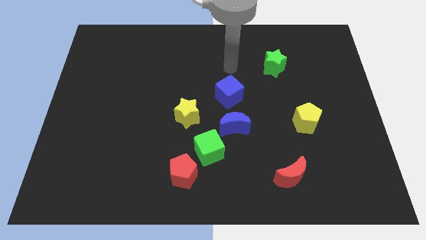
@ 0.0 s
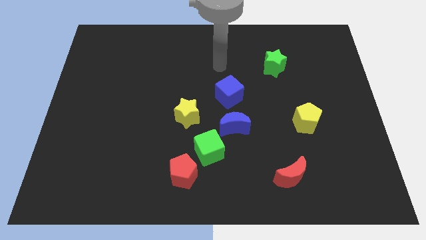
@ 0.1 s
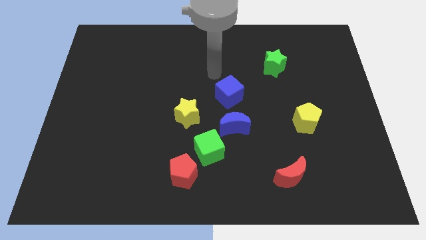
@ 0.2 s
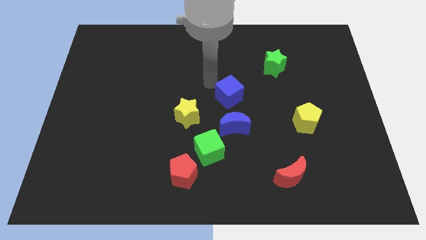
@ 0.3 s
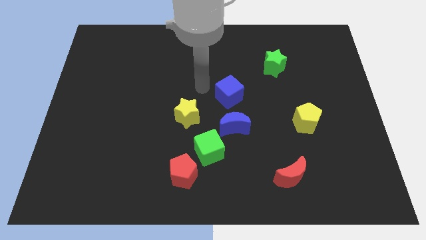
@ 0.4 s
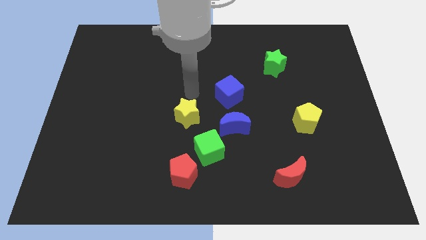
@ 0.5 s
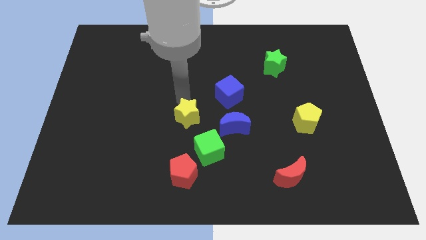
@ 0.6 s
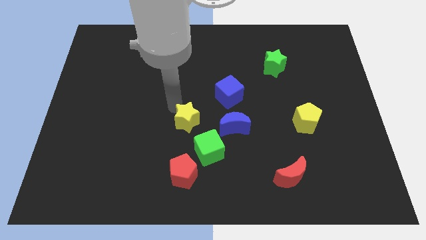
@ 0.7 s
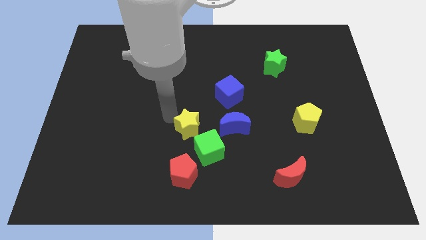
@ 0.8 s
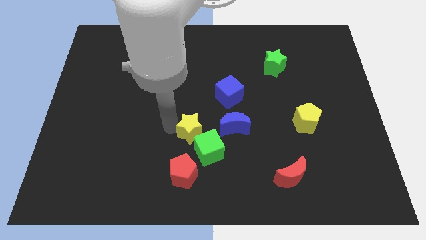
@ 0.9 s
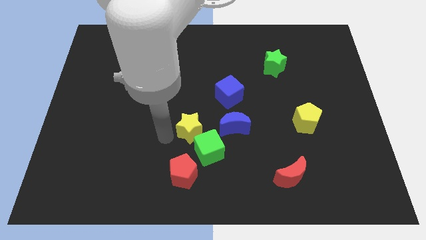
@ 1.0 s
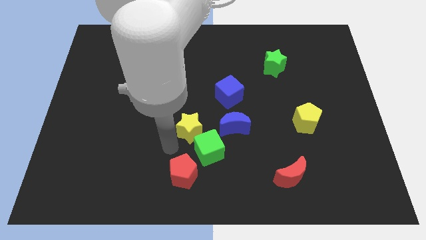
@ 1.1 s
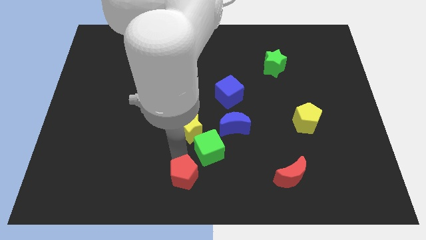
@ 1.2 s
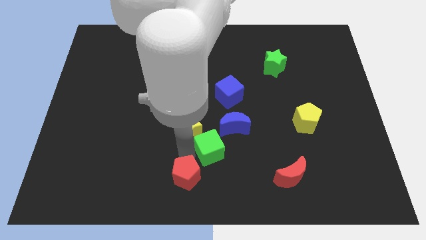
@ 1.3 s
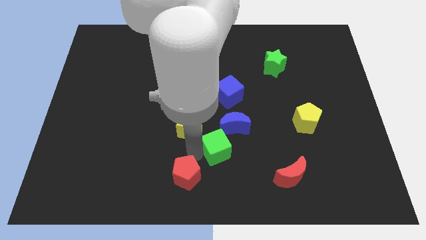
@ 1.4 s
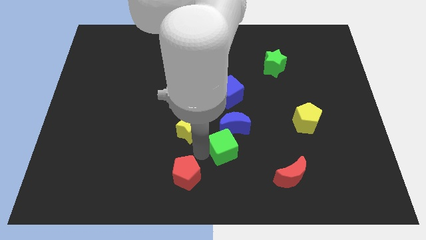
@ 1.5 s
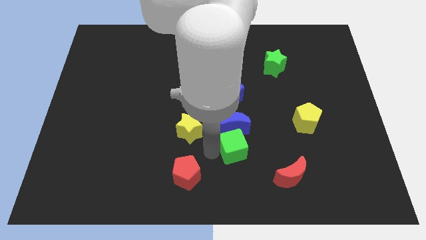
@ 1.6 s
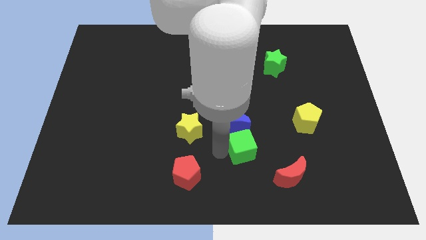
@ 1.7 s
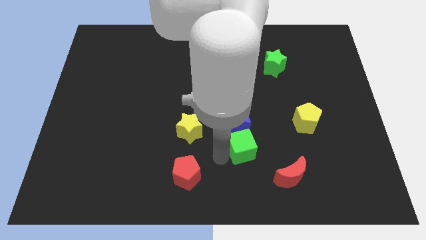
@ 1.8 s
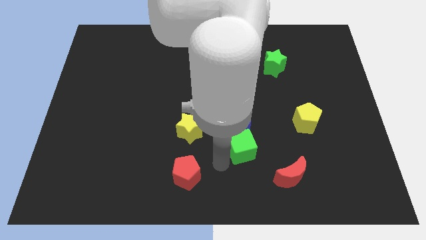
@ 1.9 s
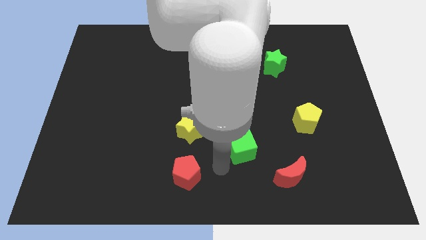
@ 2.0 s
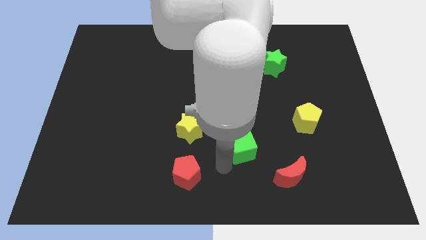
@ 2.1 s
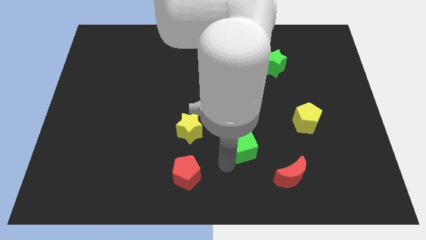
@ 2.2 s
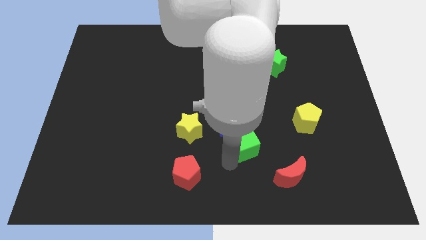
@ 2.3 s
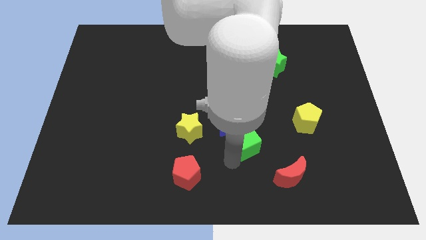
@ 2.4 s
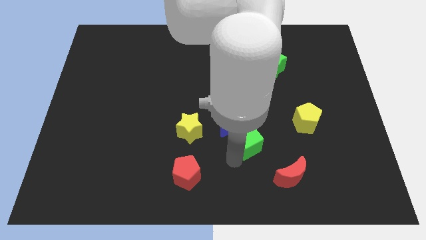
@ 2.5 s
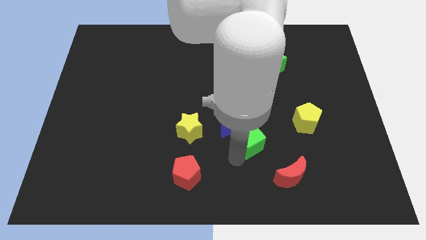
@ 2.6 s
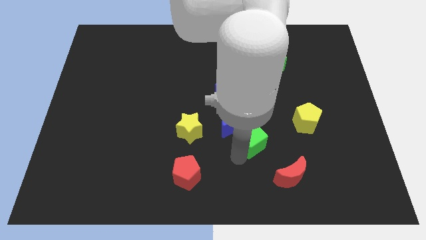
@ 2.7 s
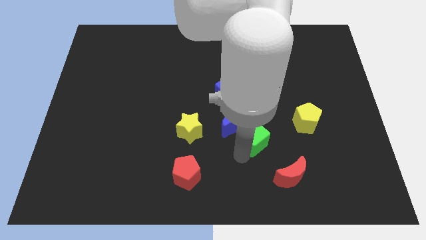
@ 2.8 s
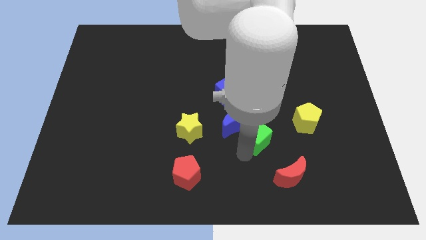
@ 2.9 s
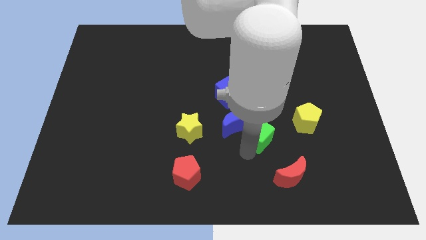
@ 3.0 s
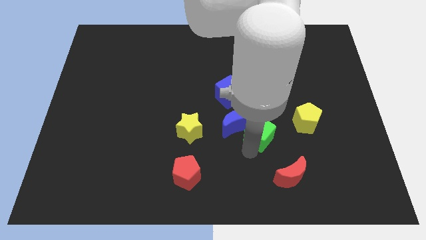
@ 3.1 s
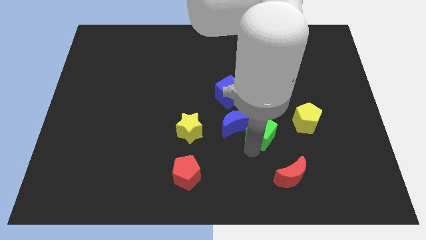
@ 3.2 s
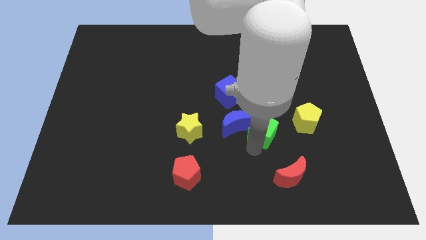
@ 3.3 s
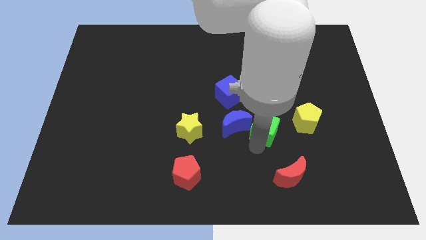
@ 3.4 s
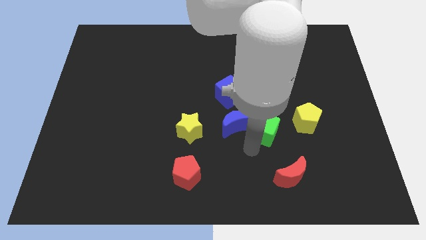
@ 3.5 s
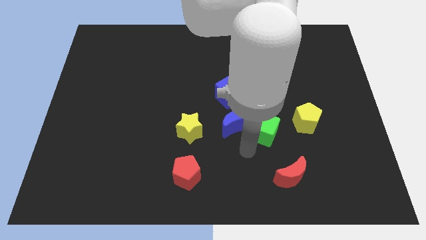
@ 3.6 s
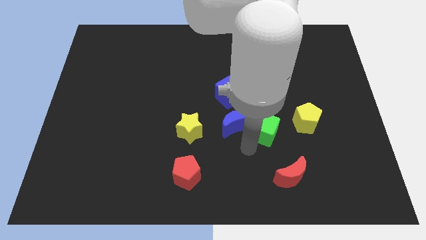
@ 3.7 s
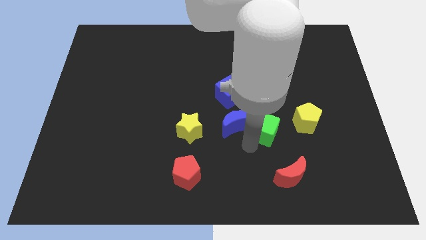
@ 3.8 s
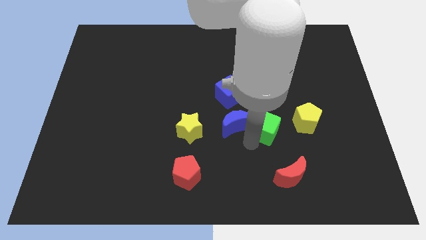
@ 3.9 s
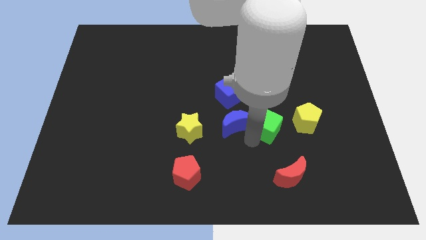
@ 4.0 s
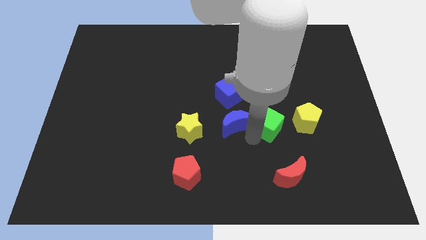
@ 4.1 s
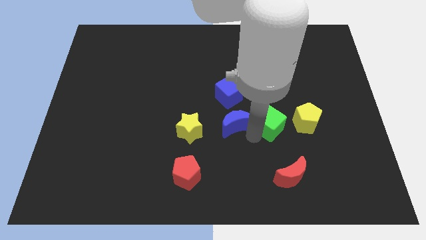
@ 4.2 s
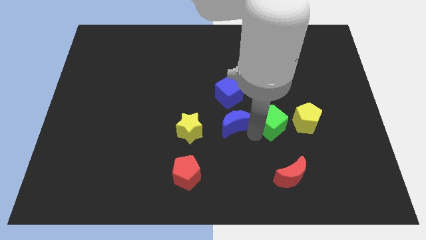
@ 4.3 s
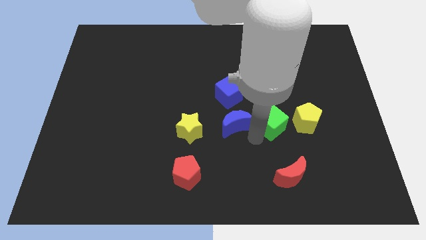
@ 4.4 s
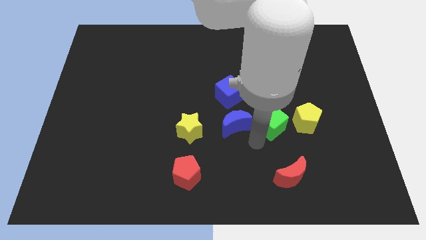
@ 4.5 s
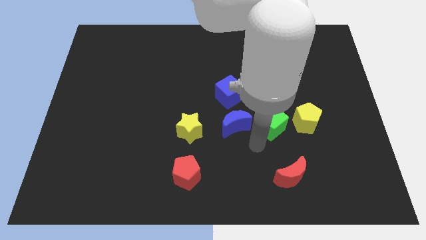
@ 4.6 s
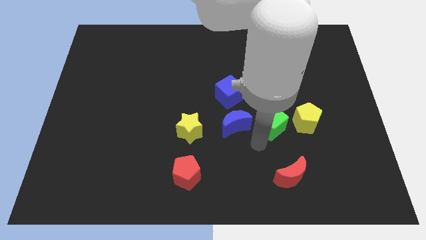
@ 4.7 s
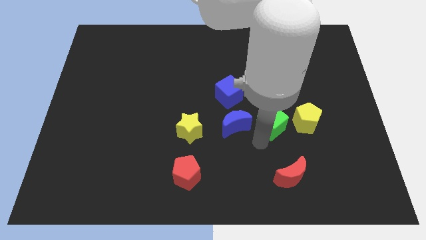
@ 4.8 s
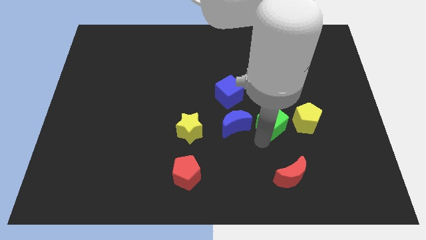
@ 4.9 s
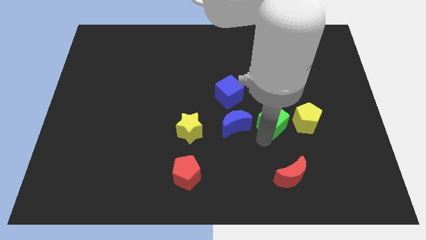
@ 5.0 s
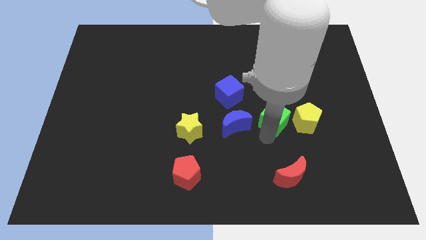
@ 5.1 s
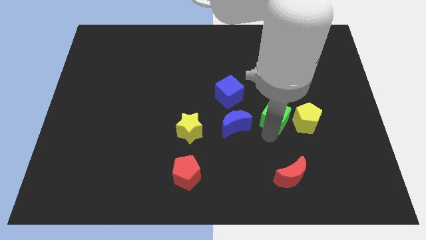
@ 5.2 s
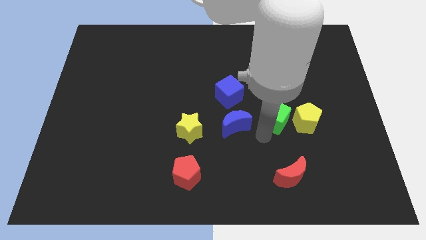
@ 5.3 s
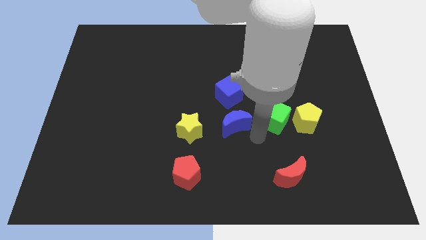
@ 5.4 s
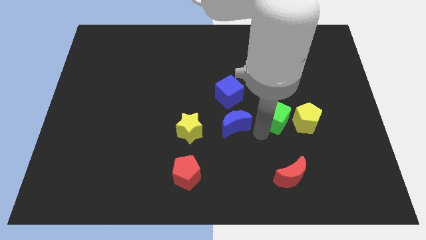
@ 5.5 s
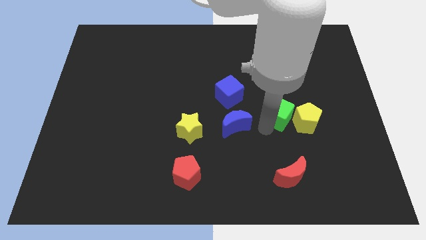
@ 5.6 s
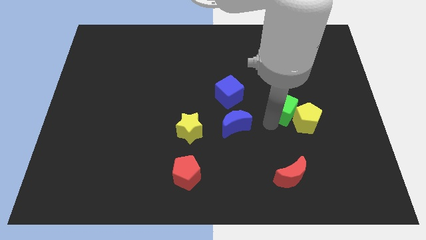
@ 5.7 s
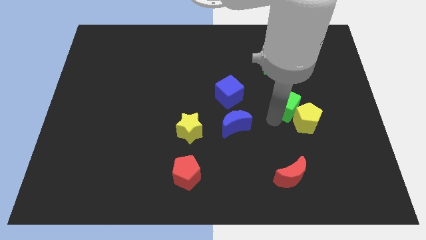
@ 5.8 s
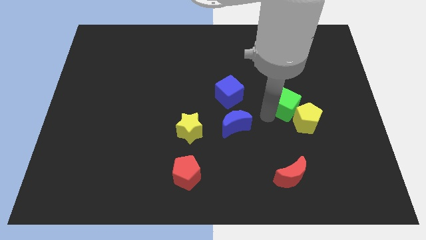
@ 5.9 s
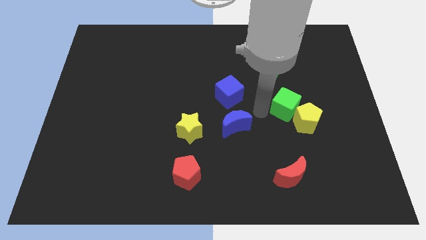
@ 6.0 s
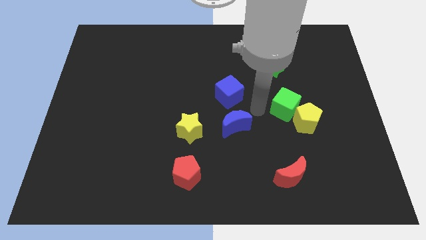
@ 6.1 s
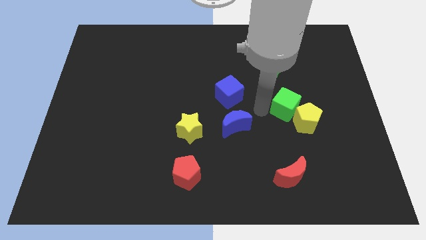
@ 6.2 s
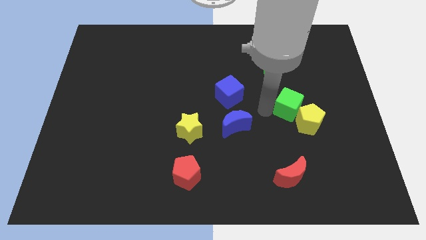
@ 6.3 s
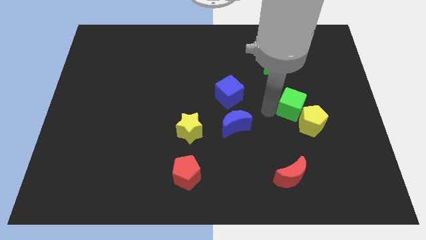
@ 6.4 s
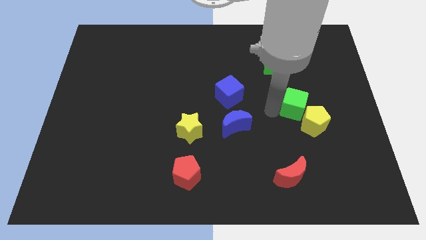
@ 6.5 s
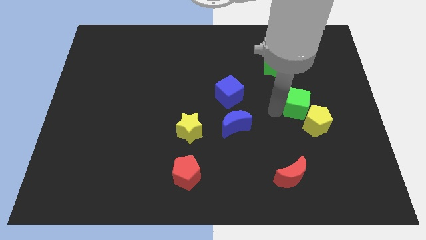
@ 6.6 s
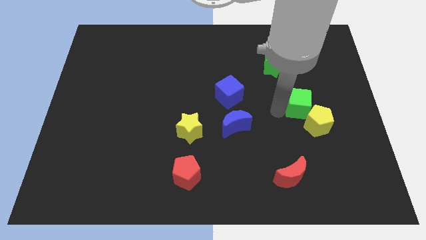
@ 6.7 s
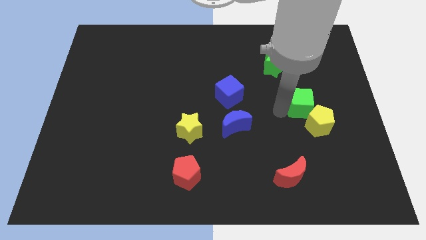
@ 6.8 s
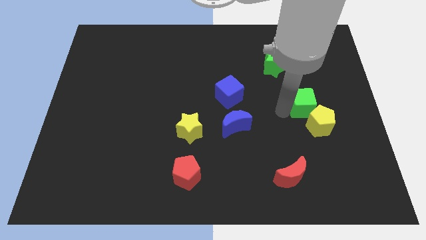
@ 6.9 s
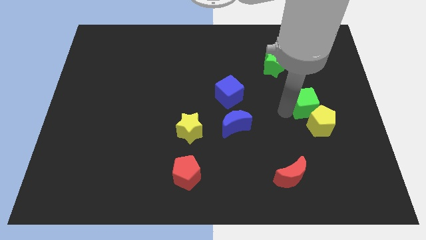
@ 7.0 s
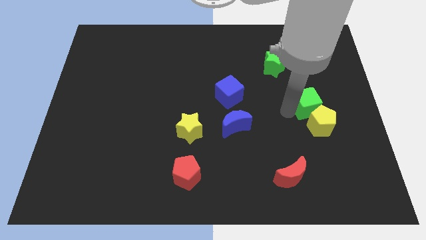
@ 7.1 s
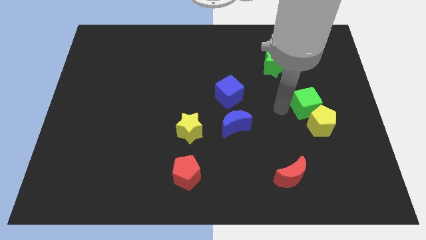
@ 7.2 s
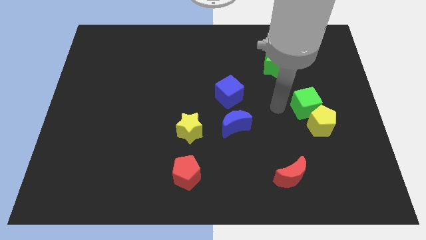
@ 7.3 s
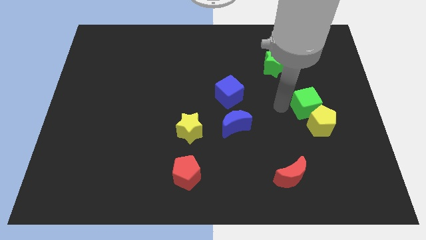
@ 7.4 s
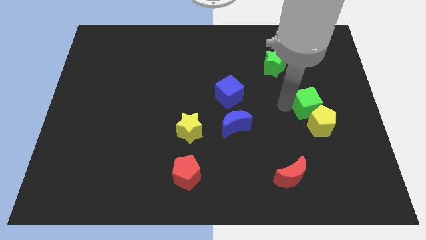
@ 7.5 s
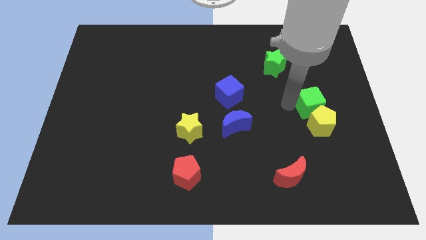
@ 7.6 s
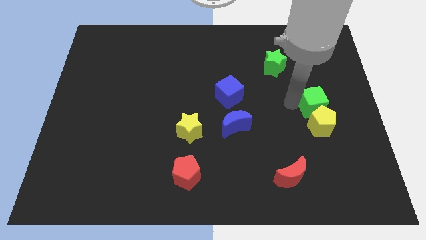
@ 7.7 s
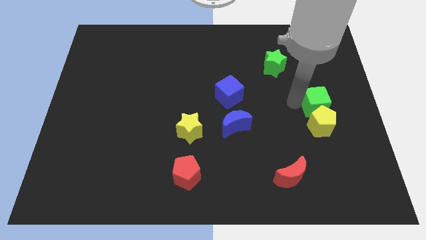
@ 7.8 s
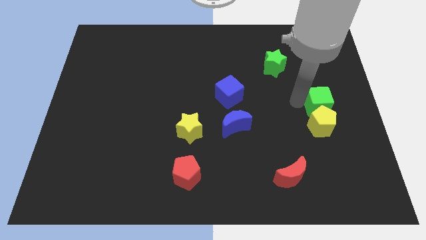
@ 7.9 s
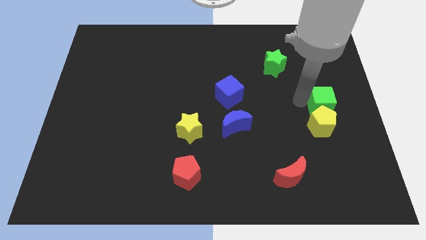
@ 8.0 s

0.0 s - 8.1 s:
slide the green cube to the center right
